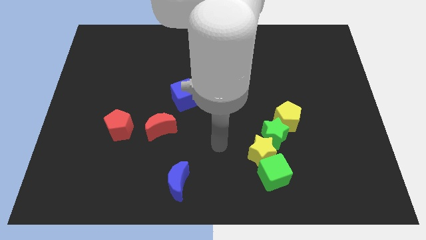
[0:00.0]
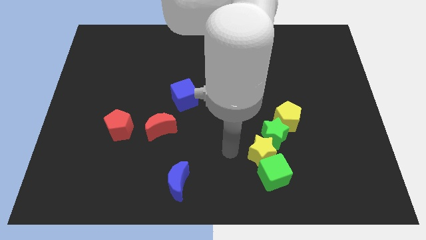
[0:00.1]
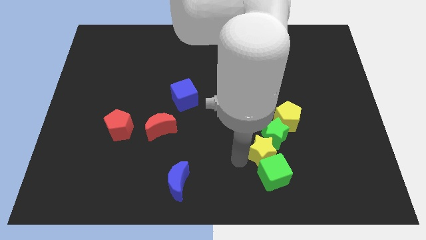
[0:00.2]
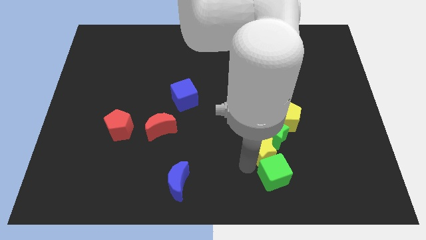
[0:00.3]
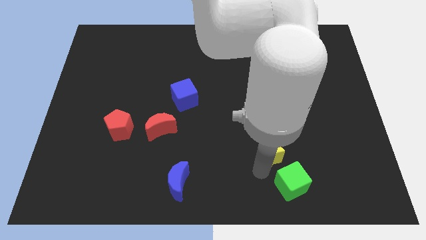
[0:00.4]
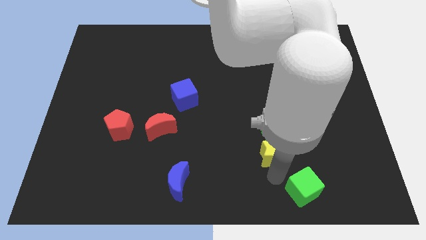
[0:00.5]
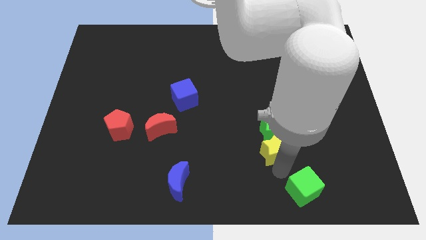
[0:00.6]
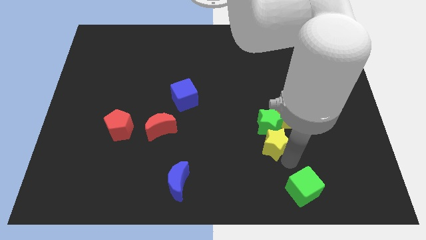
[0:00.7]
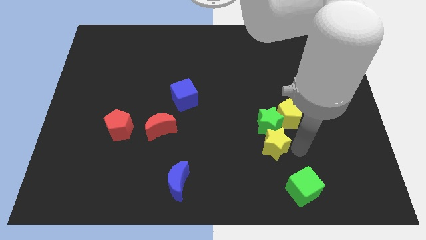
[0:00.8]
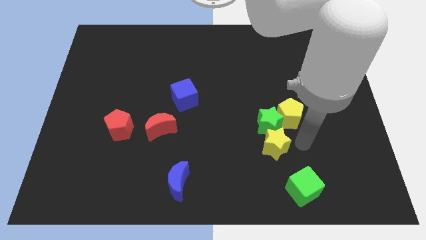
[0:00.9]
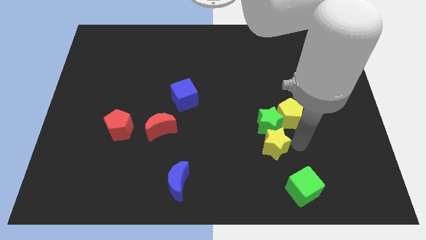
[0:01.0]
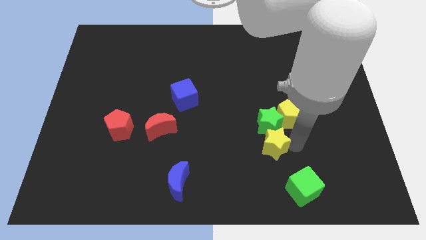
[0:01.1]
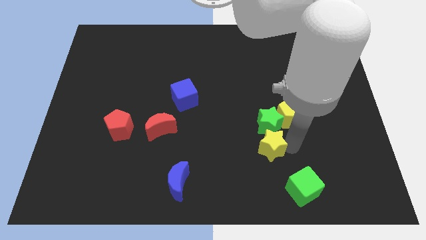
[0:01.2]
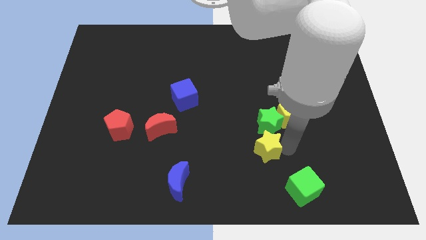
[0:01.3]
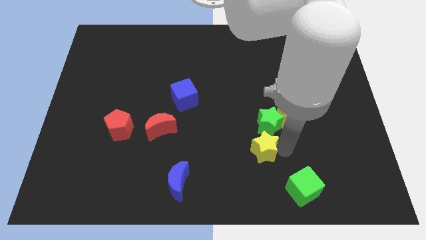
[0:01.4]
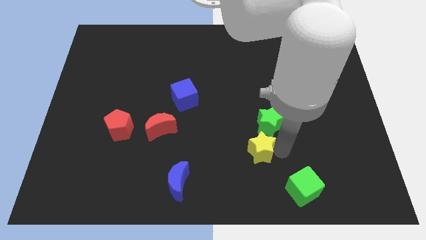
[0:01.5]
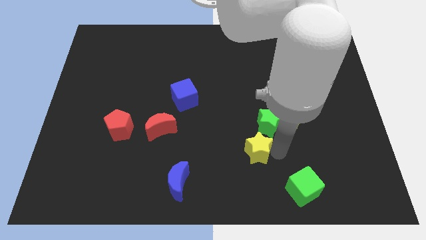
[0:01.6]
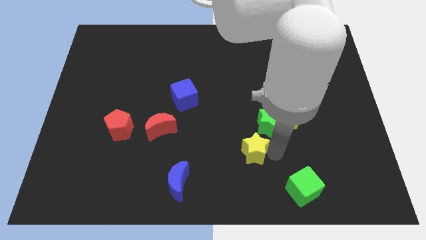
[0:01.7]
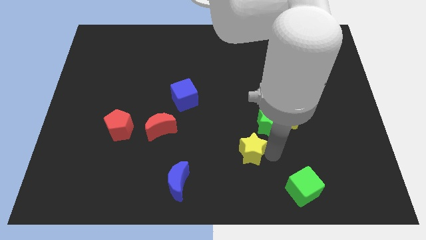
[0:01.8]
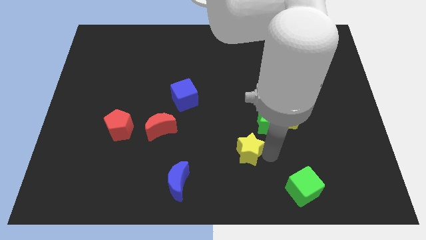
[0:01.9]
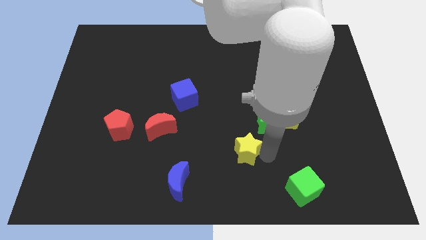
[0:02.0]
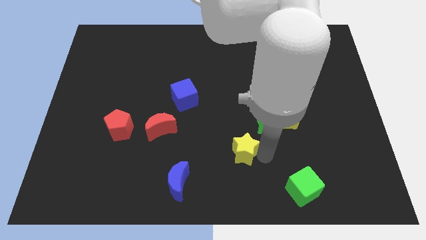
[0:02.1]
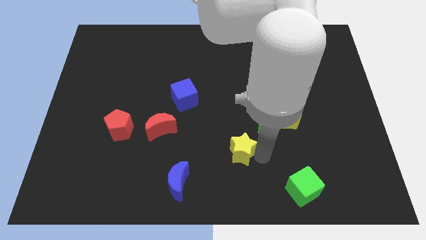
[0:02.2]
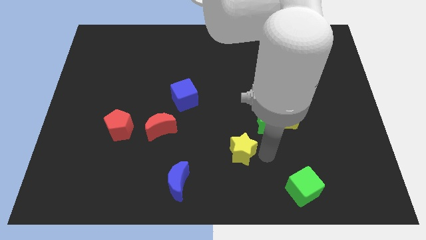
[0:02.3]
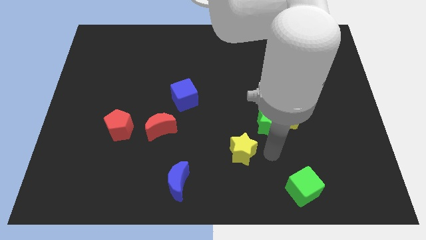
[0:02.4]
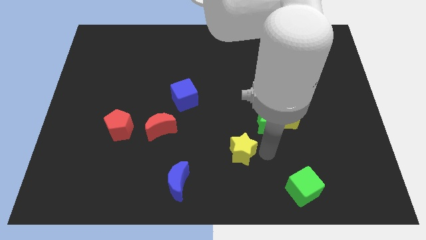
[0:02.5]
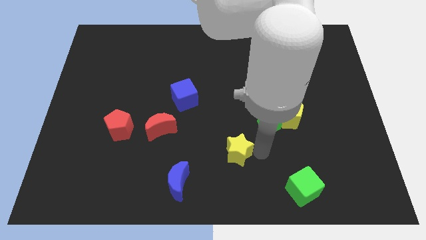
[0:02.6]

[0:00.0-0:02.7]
move the yellow star away from the green star and green cube

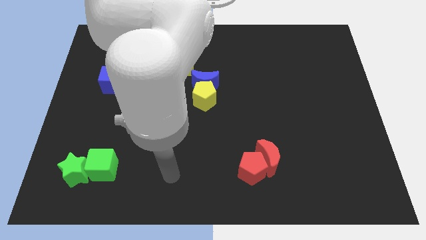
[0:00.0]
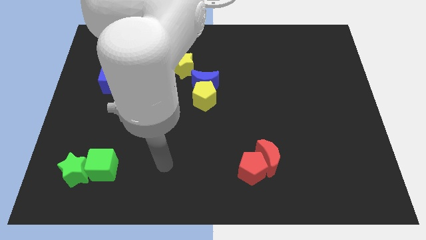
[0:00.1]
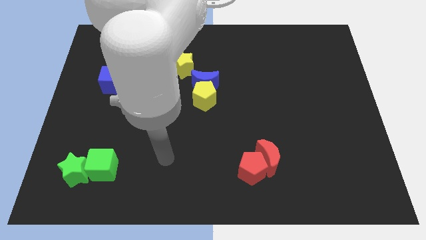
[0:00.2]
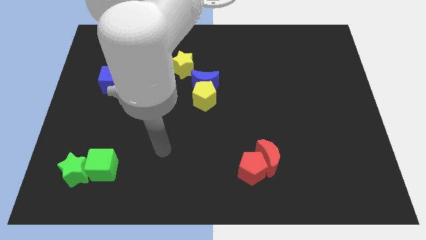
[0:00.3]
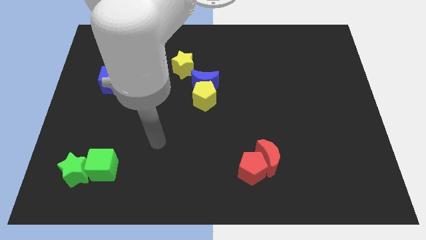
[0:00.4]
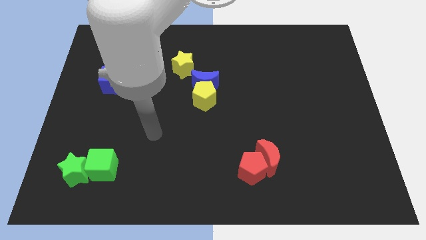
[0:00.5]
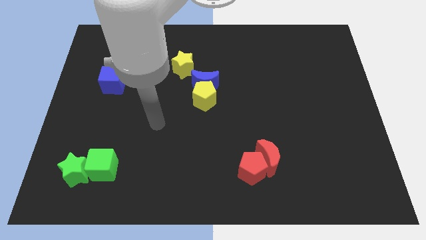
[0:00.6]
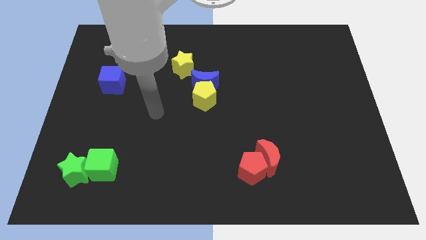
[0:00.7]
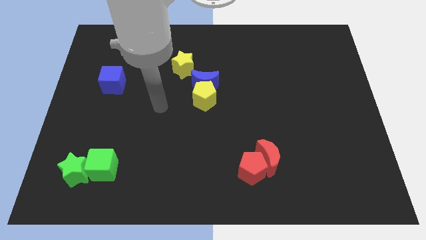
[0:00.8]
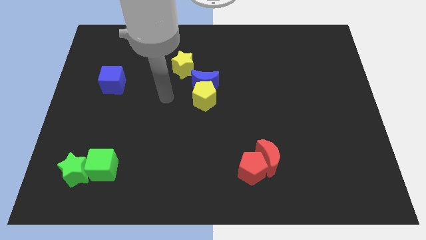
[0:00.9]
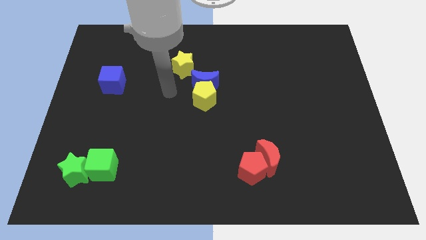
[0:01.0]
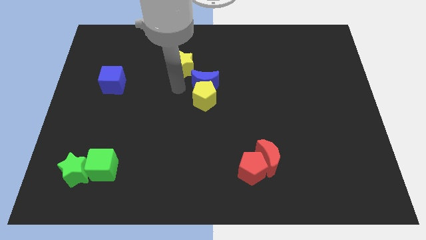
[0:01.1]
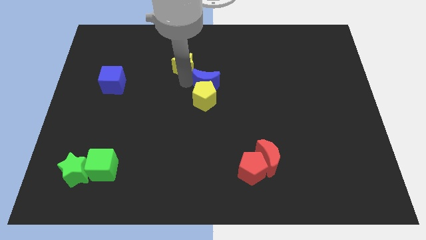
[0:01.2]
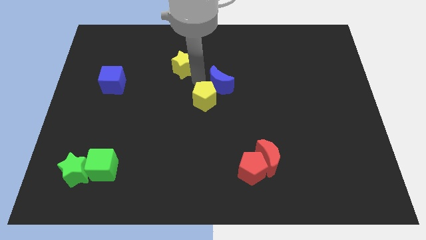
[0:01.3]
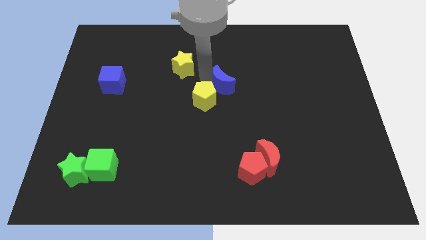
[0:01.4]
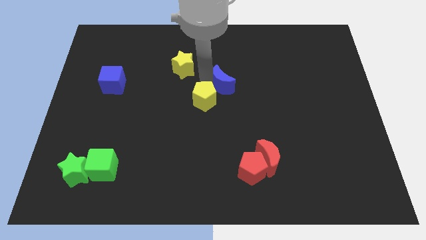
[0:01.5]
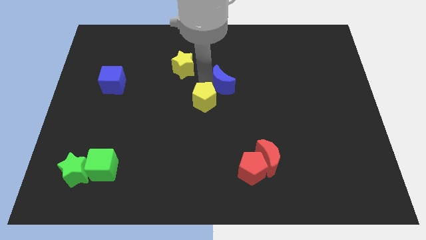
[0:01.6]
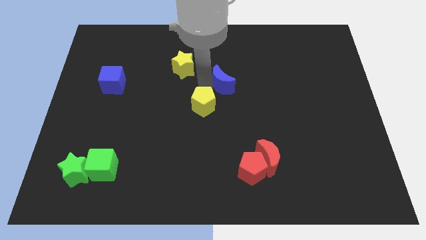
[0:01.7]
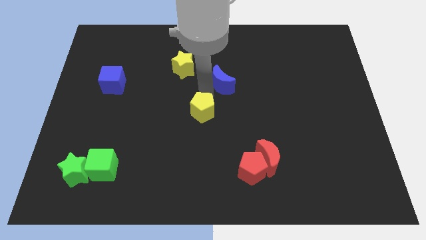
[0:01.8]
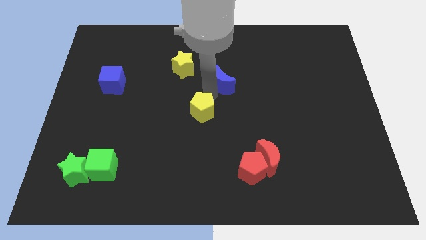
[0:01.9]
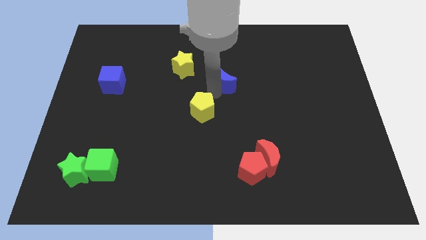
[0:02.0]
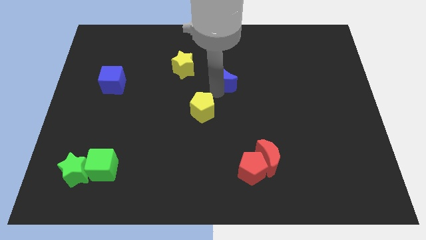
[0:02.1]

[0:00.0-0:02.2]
move the yellow pentagon away from the blue moon

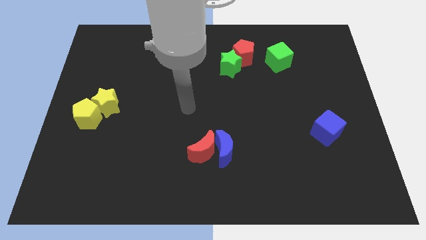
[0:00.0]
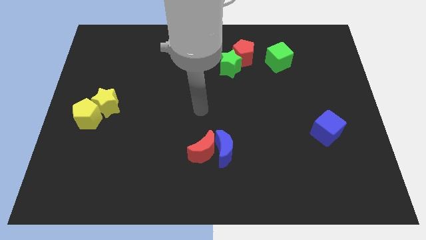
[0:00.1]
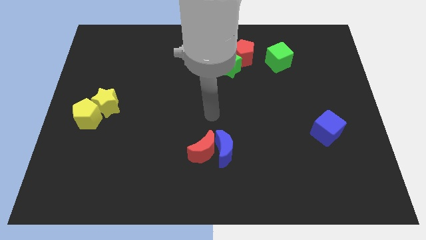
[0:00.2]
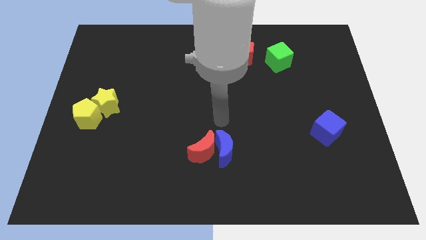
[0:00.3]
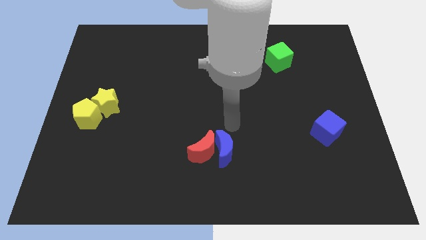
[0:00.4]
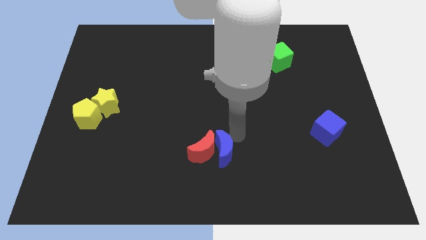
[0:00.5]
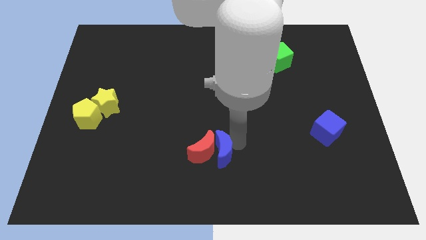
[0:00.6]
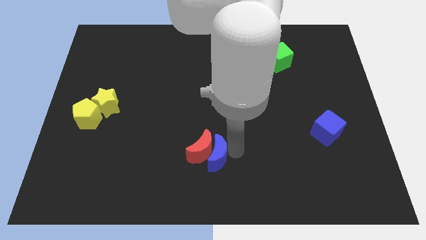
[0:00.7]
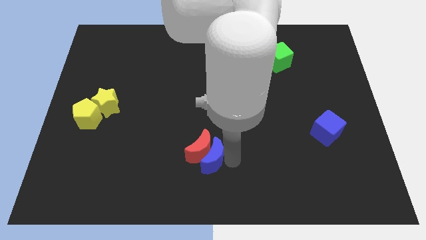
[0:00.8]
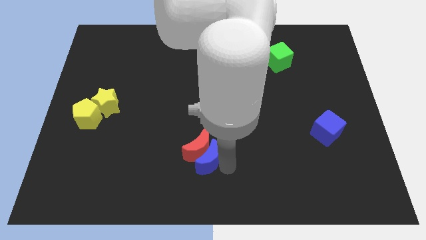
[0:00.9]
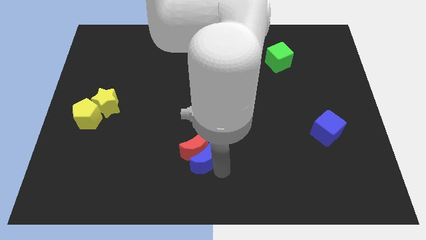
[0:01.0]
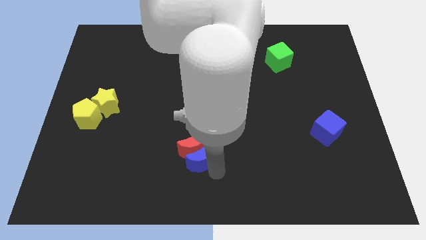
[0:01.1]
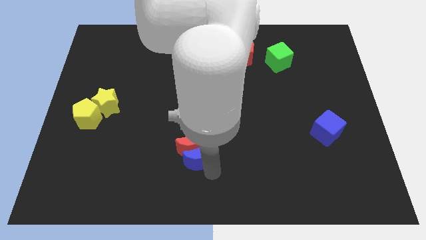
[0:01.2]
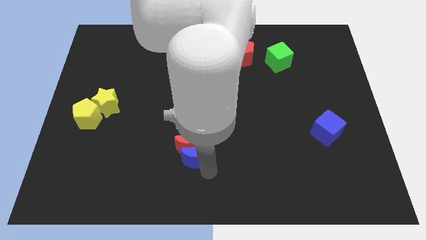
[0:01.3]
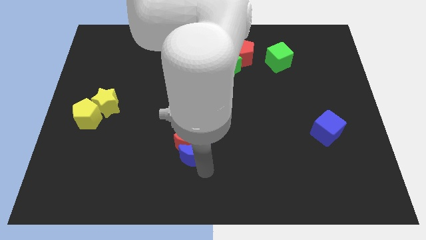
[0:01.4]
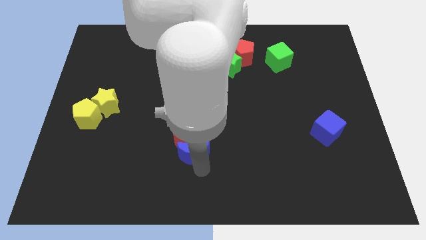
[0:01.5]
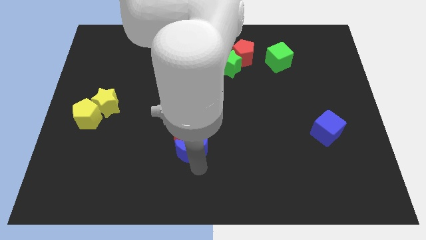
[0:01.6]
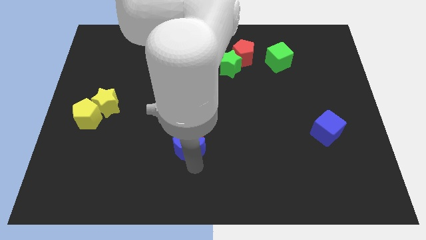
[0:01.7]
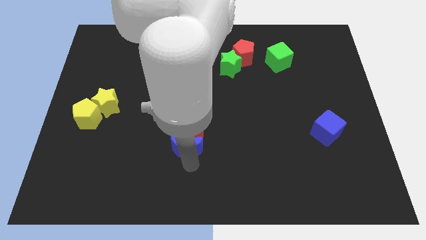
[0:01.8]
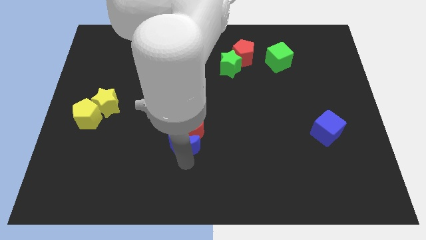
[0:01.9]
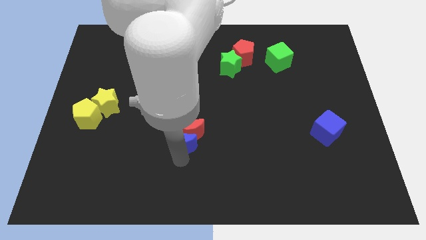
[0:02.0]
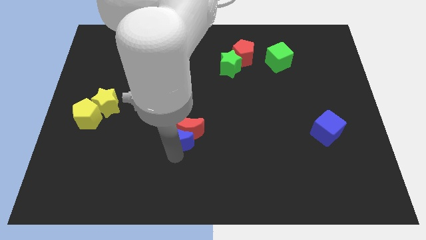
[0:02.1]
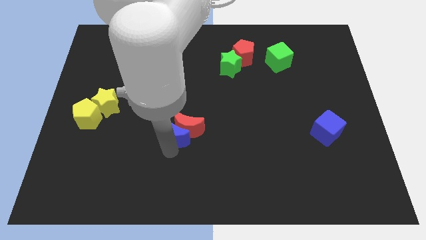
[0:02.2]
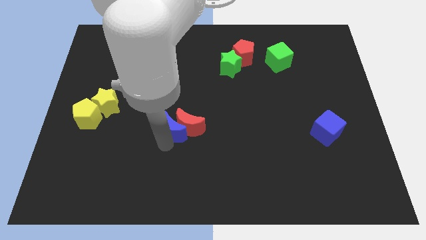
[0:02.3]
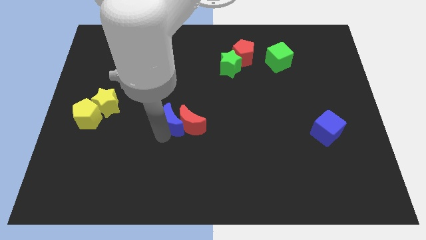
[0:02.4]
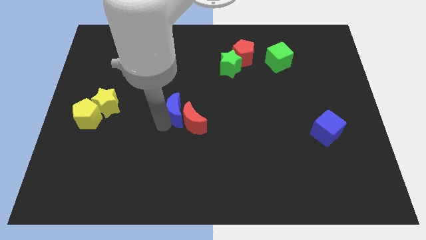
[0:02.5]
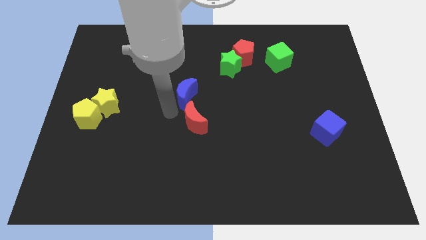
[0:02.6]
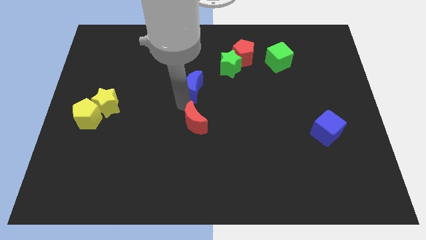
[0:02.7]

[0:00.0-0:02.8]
separate the red moon from the blue moon

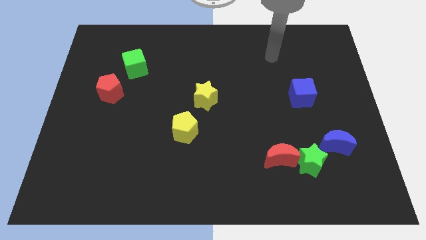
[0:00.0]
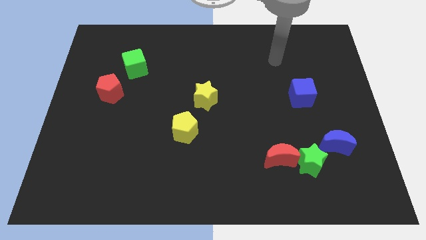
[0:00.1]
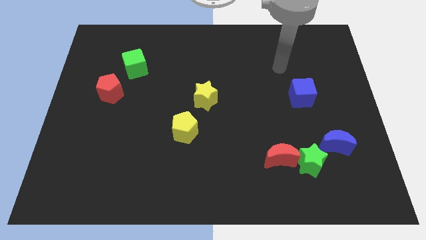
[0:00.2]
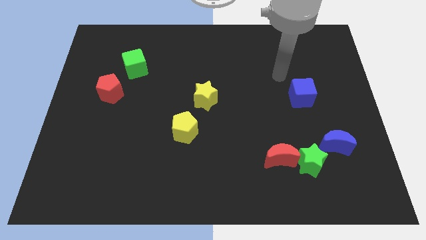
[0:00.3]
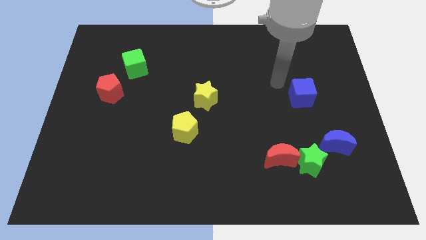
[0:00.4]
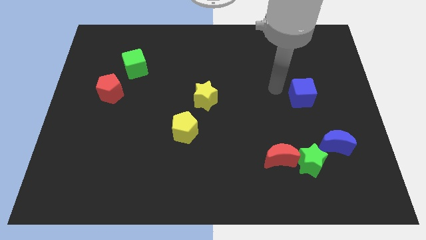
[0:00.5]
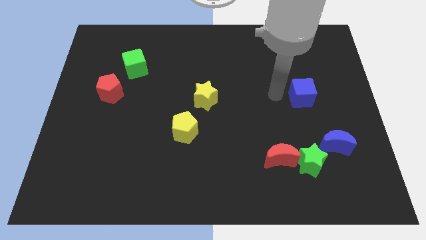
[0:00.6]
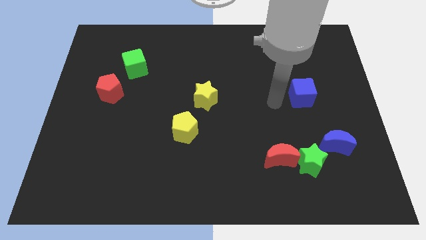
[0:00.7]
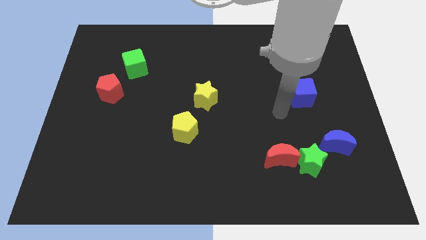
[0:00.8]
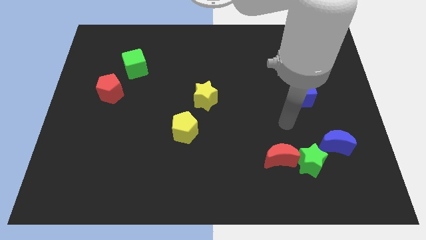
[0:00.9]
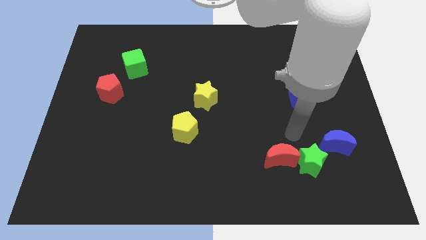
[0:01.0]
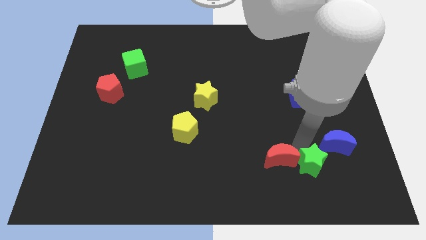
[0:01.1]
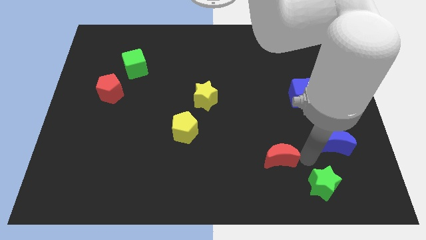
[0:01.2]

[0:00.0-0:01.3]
pull the red moon apart from the green star
